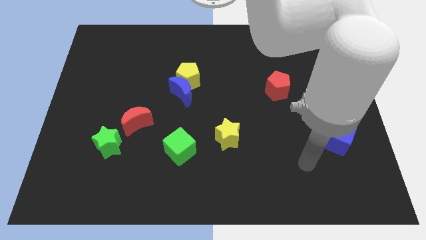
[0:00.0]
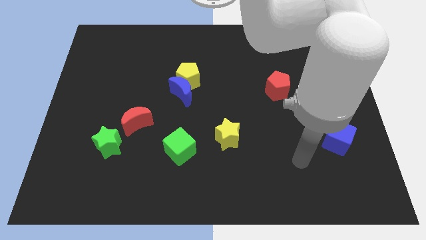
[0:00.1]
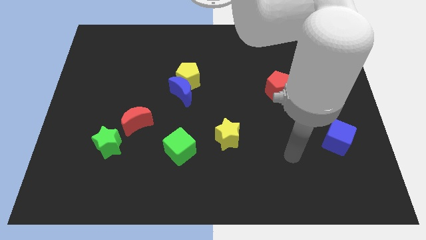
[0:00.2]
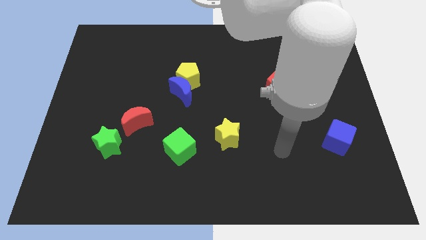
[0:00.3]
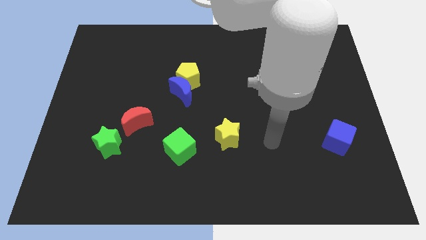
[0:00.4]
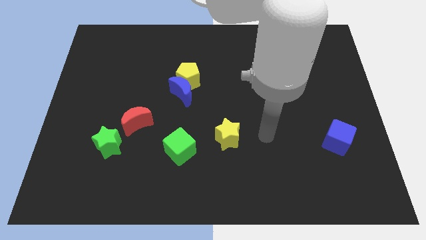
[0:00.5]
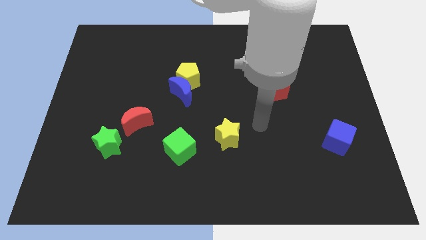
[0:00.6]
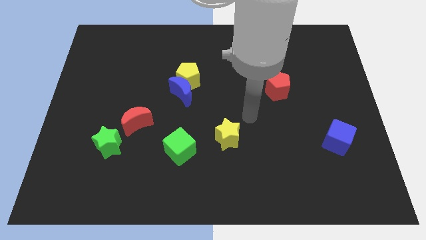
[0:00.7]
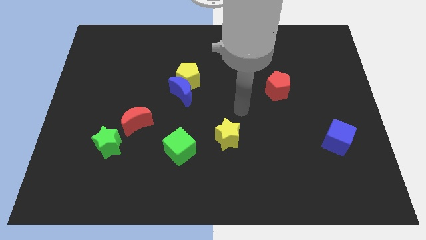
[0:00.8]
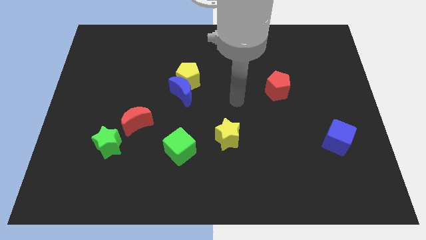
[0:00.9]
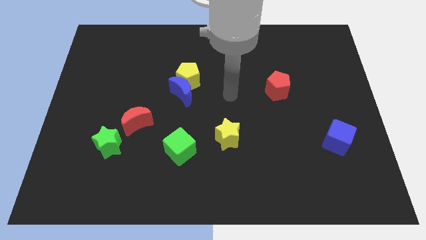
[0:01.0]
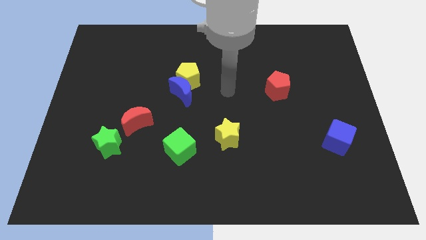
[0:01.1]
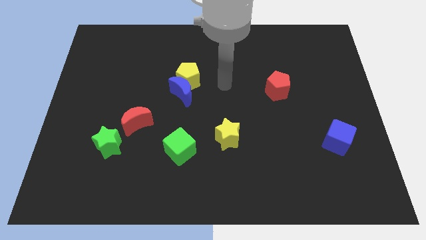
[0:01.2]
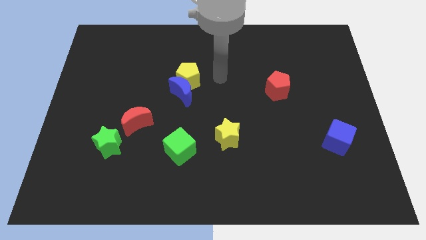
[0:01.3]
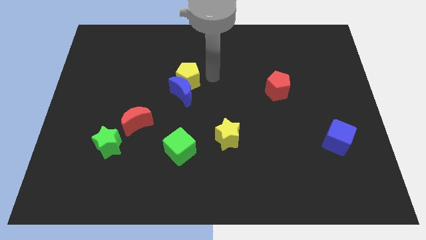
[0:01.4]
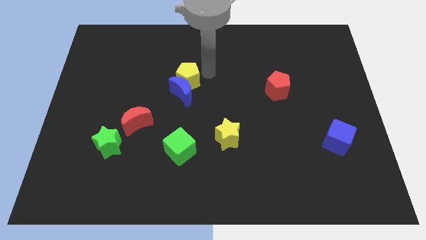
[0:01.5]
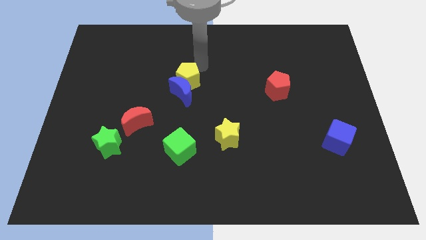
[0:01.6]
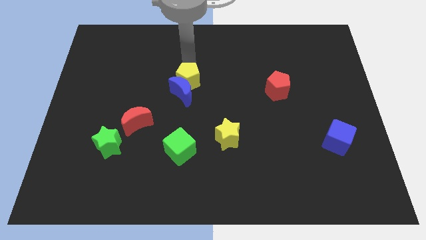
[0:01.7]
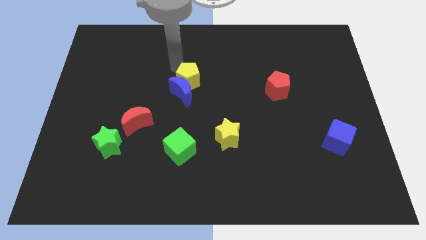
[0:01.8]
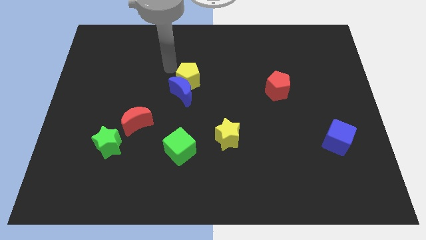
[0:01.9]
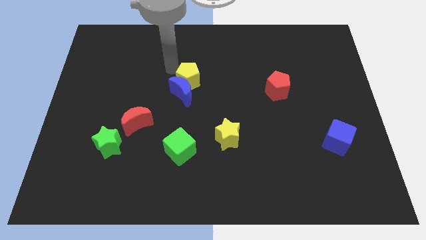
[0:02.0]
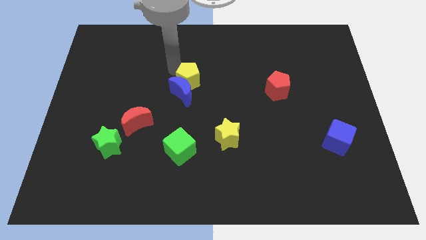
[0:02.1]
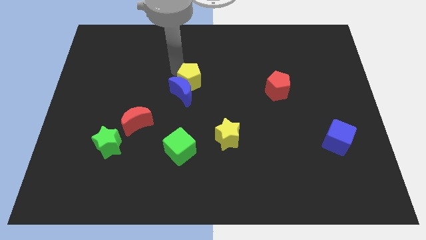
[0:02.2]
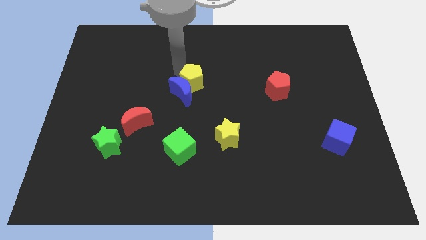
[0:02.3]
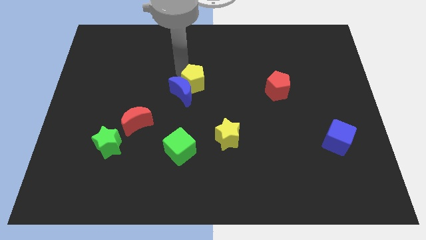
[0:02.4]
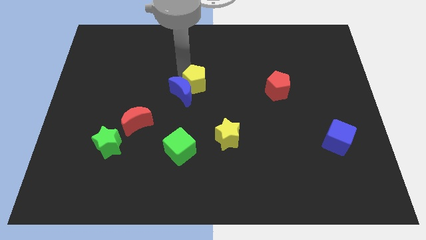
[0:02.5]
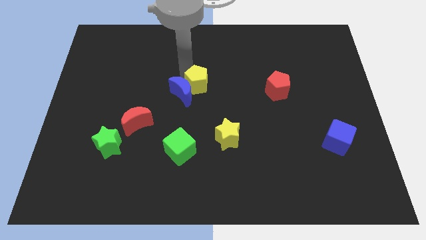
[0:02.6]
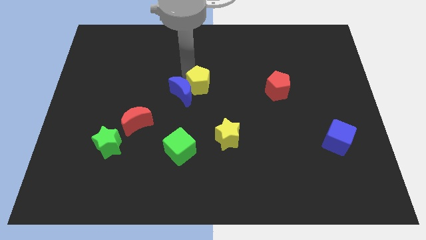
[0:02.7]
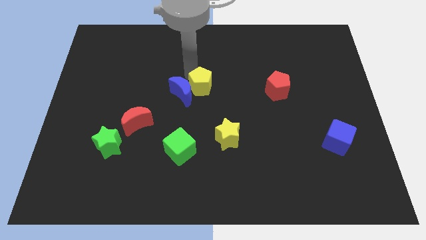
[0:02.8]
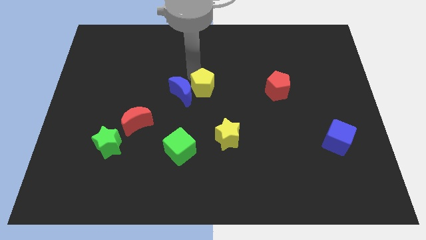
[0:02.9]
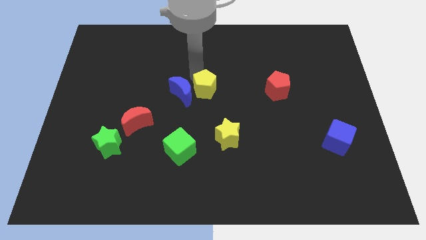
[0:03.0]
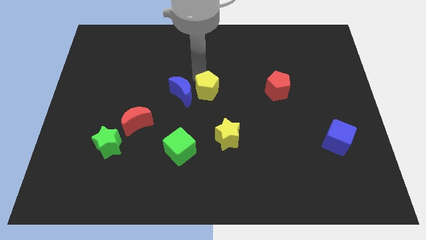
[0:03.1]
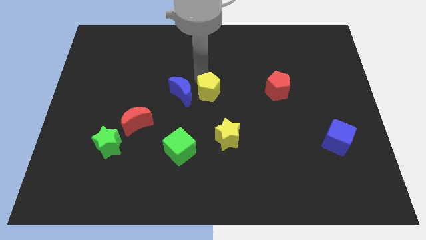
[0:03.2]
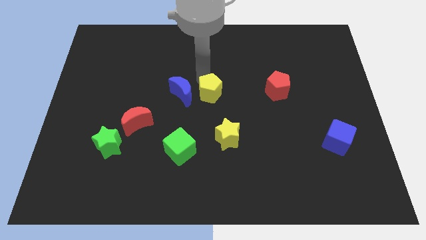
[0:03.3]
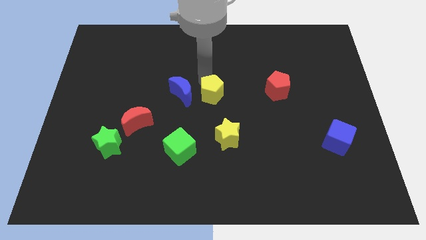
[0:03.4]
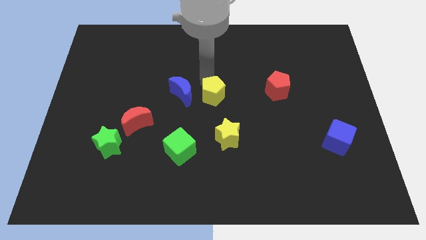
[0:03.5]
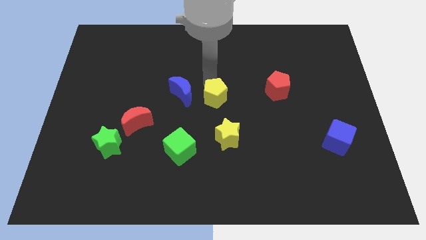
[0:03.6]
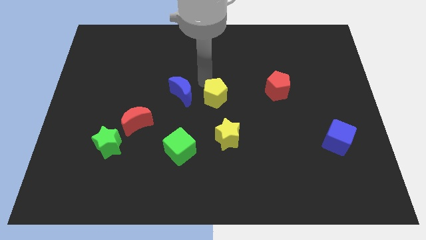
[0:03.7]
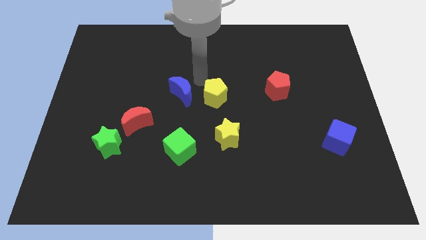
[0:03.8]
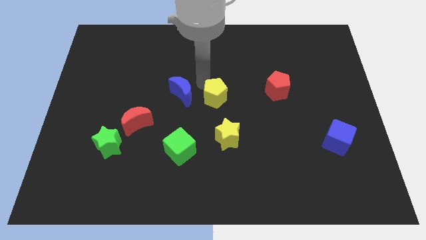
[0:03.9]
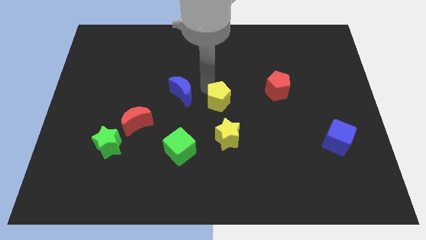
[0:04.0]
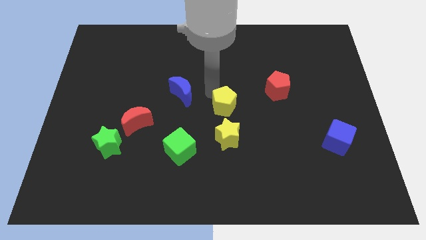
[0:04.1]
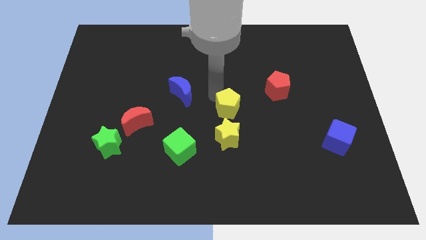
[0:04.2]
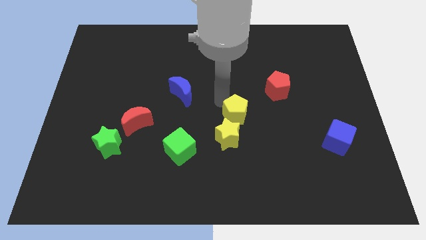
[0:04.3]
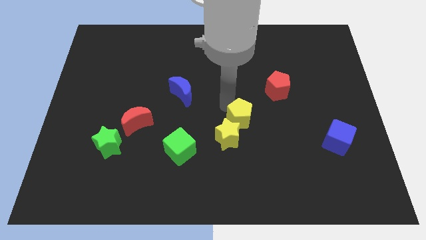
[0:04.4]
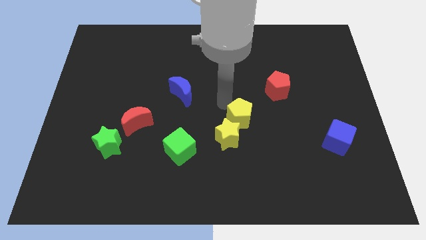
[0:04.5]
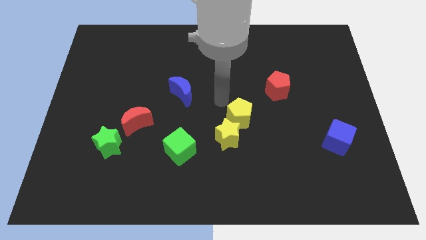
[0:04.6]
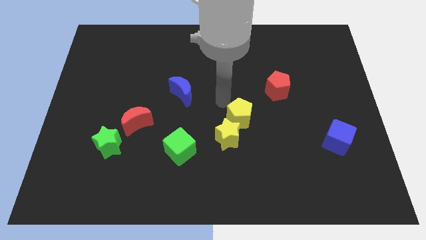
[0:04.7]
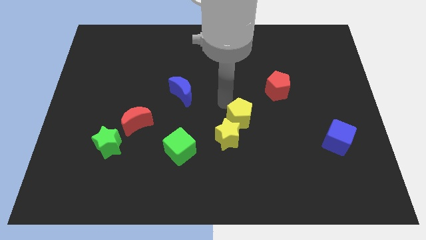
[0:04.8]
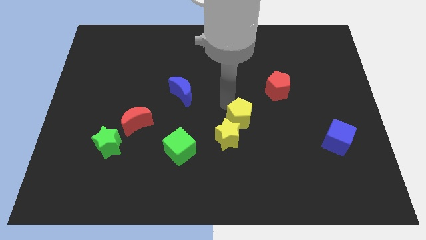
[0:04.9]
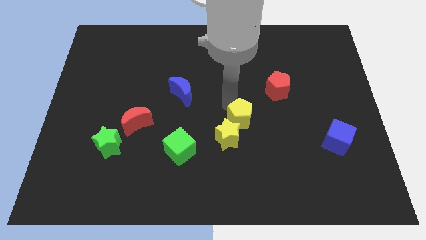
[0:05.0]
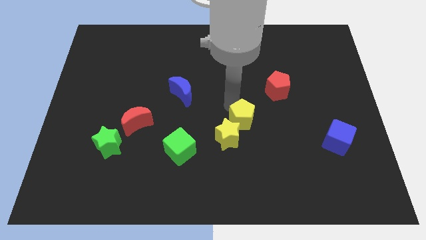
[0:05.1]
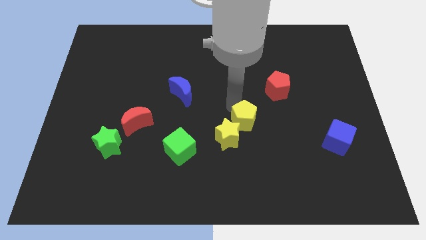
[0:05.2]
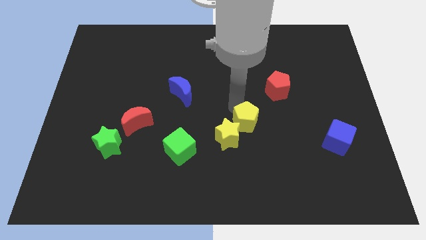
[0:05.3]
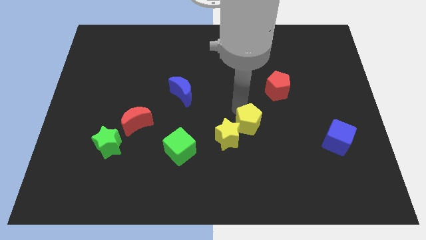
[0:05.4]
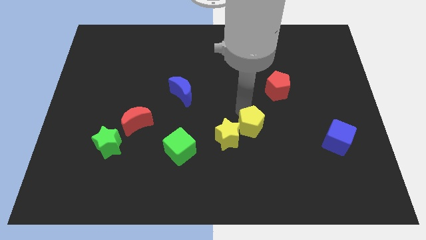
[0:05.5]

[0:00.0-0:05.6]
push the yellow pentagon diagonally down and to the right

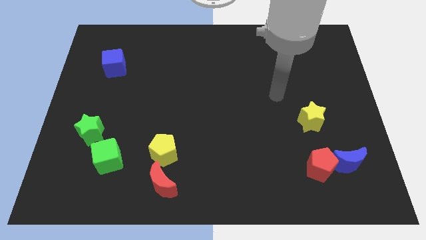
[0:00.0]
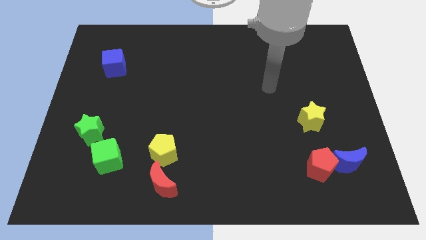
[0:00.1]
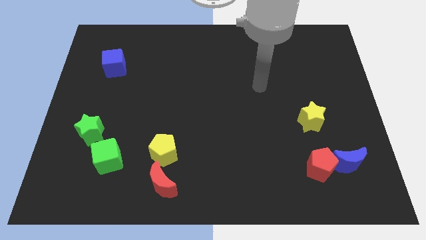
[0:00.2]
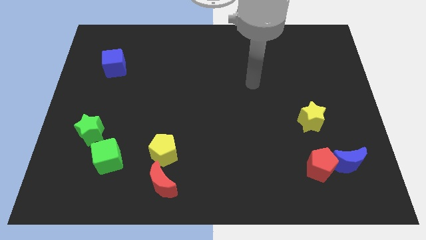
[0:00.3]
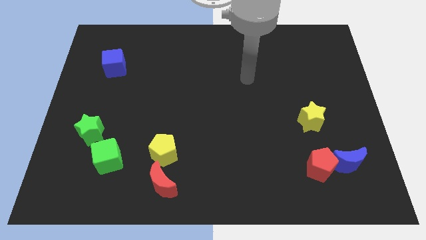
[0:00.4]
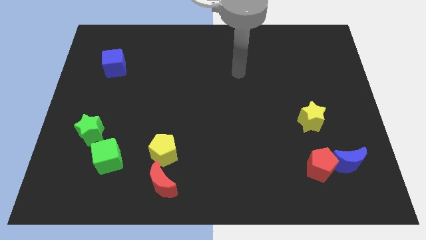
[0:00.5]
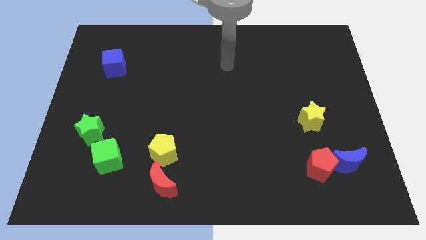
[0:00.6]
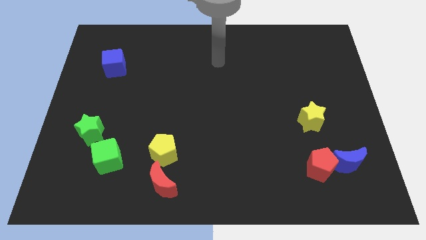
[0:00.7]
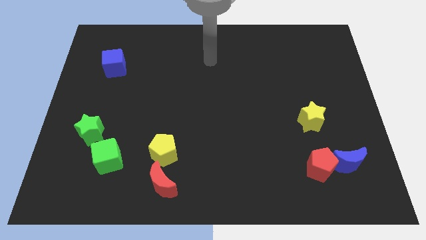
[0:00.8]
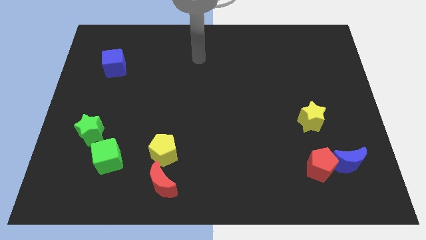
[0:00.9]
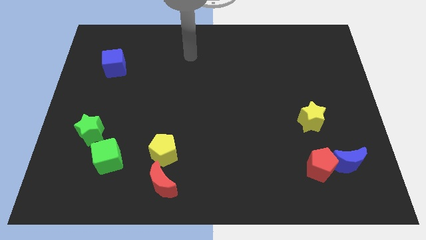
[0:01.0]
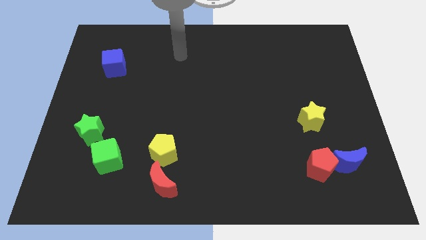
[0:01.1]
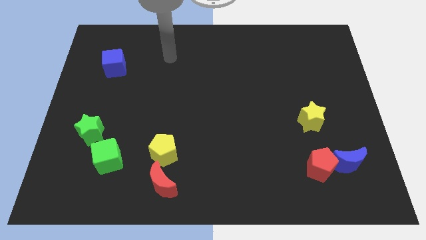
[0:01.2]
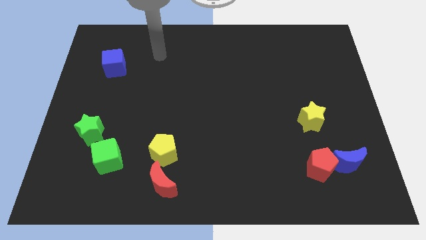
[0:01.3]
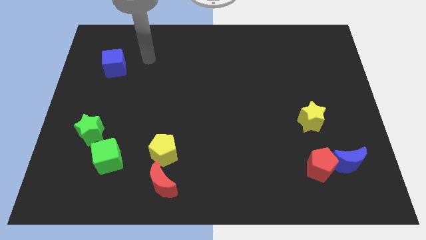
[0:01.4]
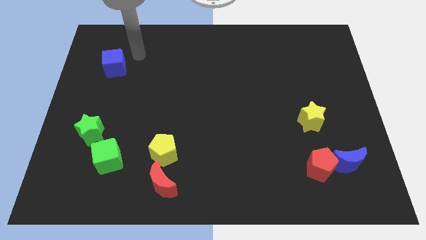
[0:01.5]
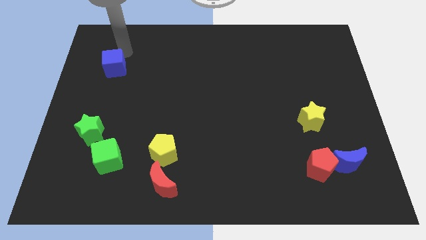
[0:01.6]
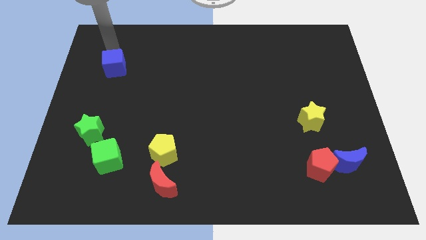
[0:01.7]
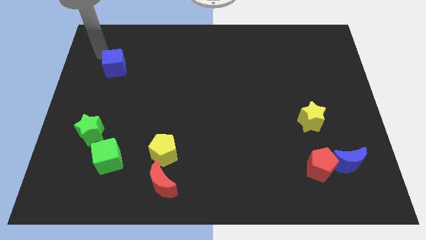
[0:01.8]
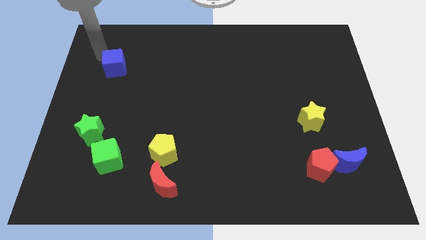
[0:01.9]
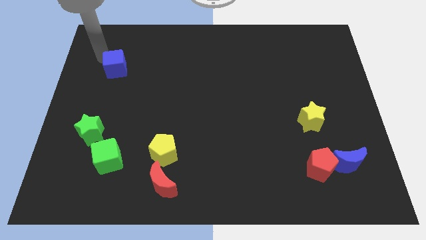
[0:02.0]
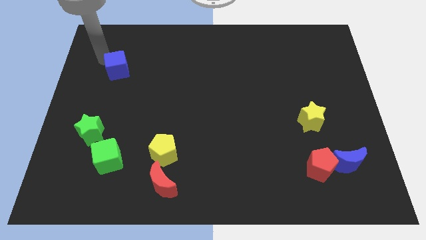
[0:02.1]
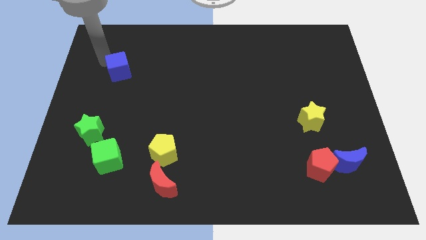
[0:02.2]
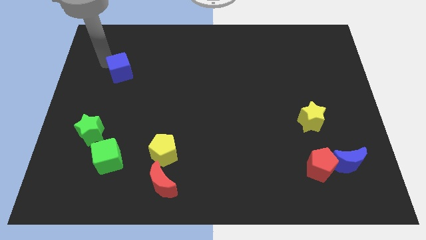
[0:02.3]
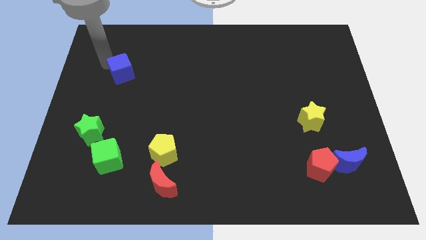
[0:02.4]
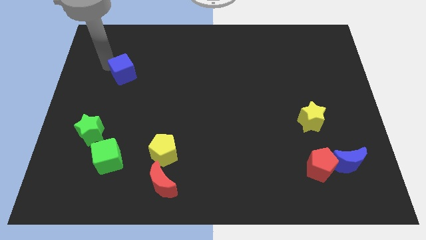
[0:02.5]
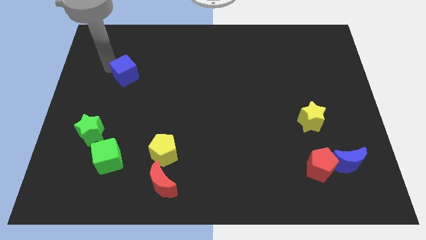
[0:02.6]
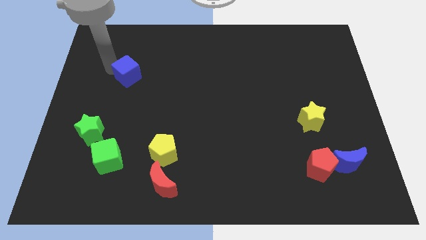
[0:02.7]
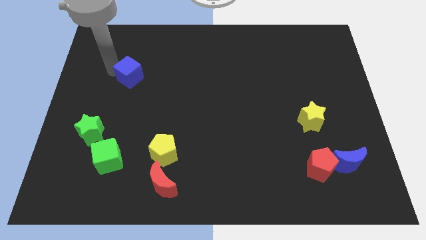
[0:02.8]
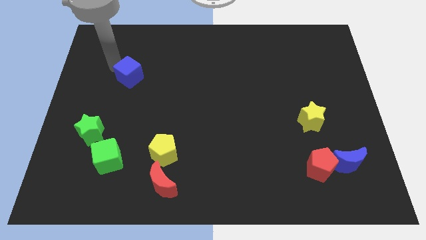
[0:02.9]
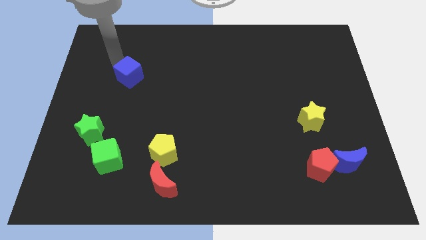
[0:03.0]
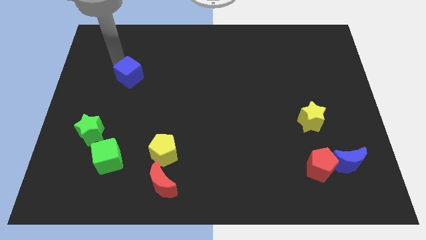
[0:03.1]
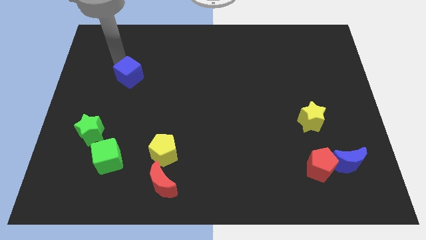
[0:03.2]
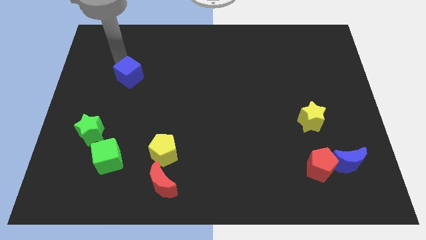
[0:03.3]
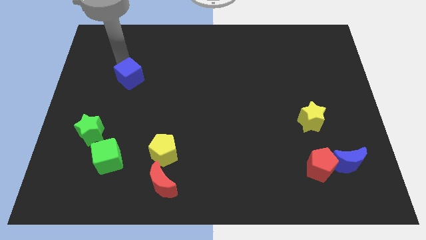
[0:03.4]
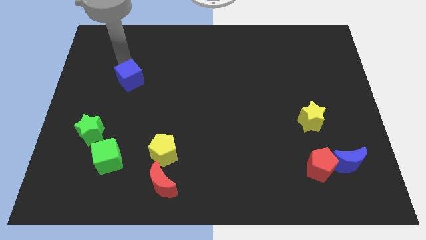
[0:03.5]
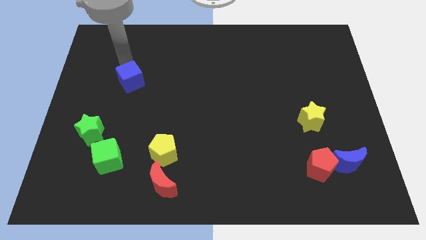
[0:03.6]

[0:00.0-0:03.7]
move the blue cube somewhat down and then right
